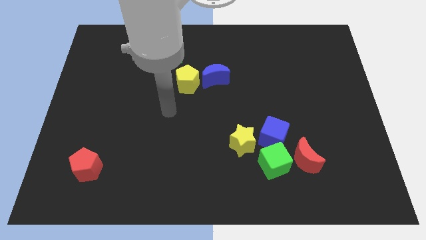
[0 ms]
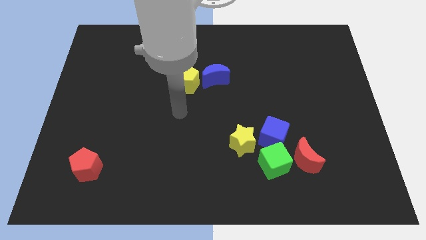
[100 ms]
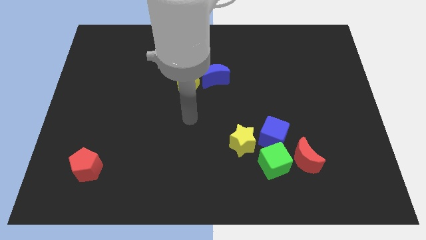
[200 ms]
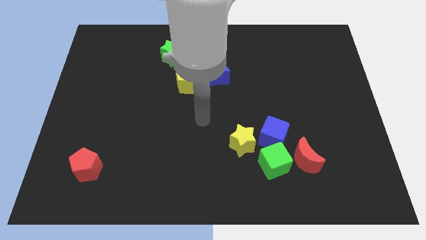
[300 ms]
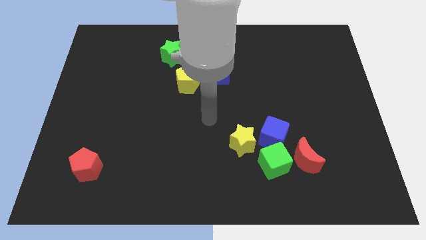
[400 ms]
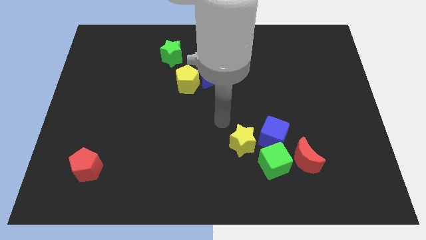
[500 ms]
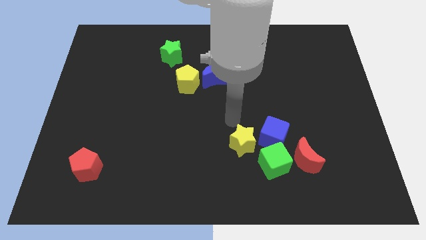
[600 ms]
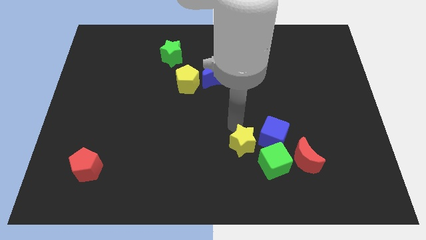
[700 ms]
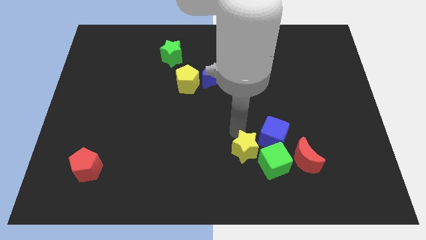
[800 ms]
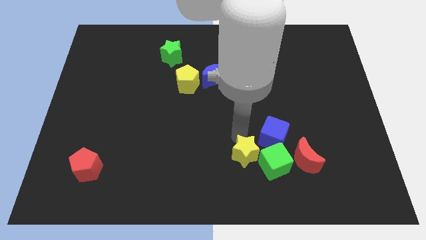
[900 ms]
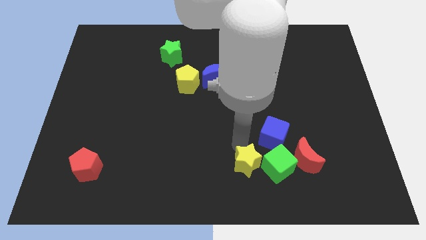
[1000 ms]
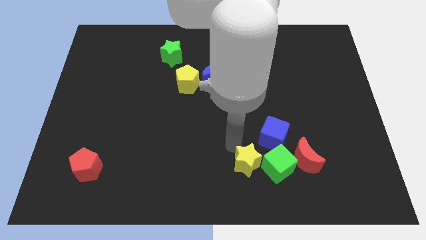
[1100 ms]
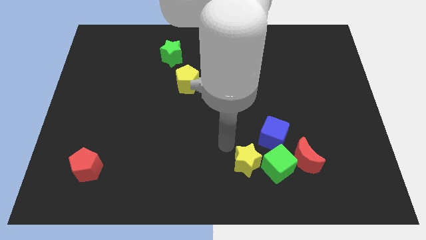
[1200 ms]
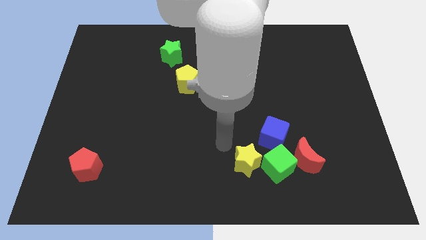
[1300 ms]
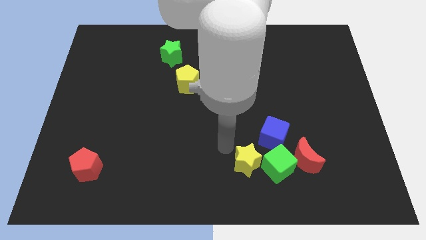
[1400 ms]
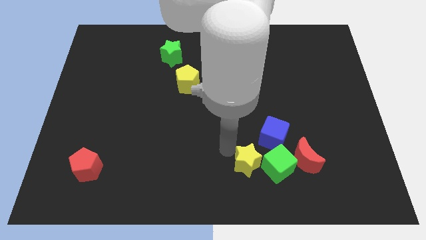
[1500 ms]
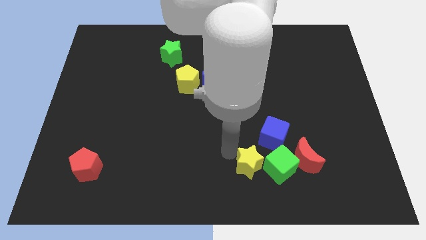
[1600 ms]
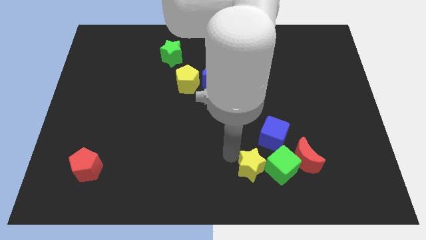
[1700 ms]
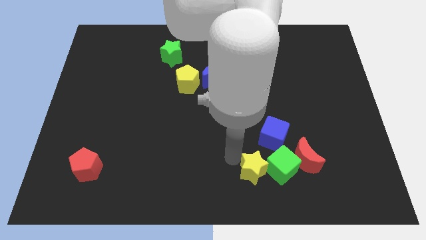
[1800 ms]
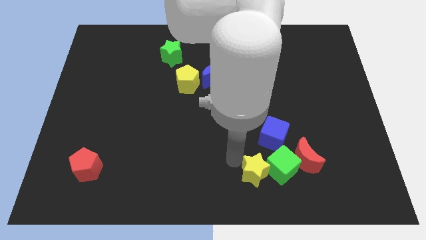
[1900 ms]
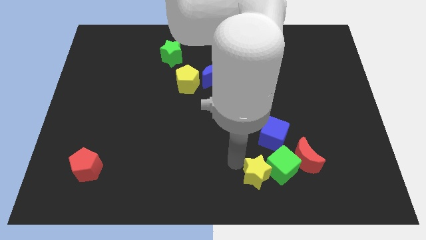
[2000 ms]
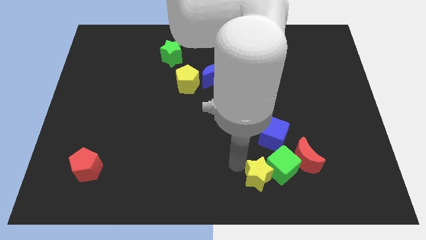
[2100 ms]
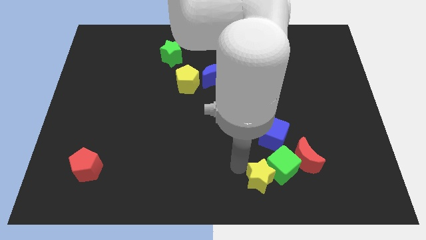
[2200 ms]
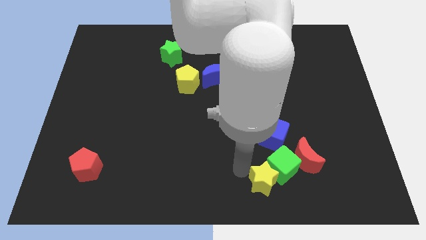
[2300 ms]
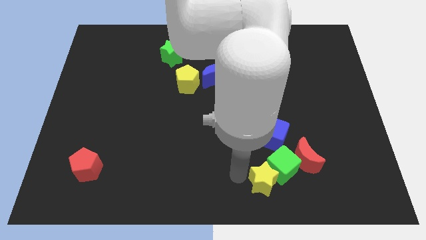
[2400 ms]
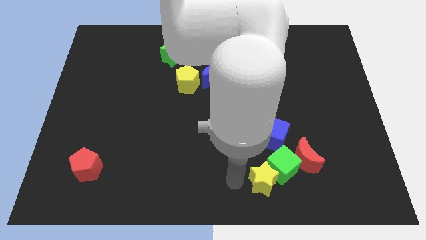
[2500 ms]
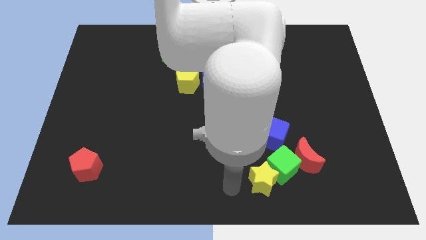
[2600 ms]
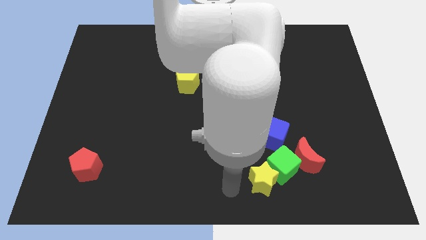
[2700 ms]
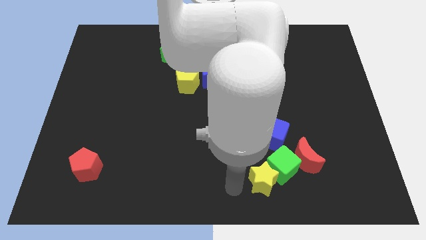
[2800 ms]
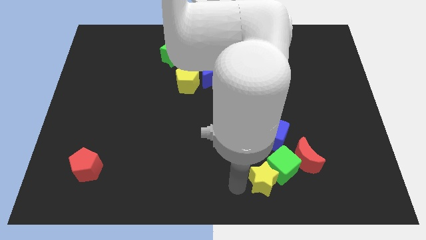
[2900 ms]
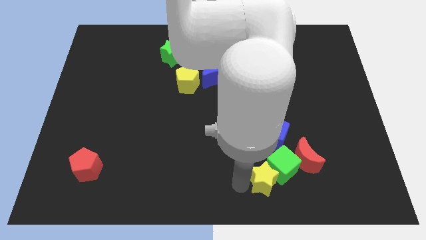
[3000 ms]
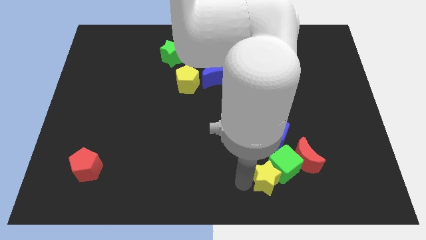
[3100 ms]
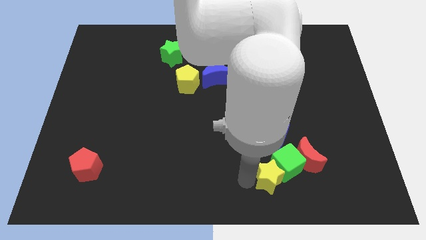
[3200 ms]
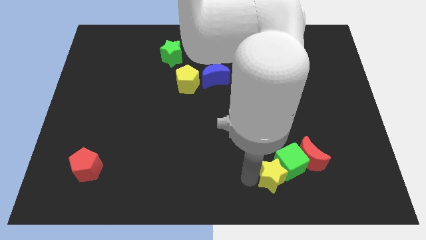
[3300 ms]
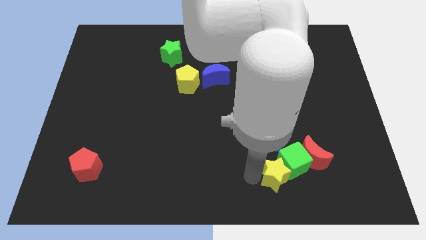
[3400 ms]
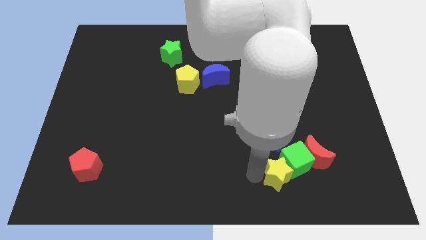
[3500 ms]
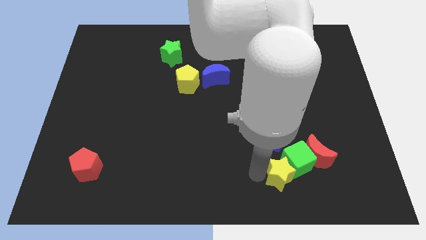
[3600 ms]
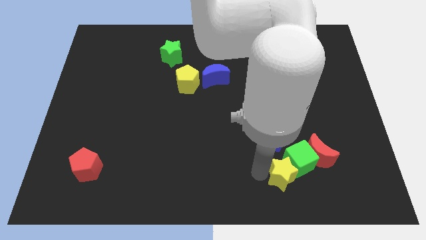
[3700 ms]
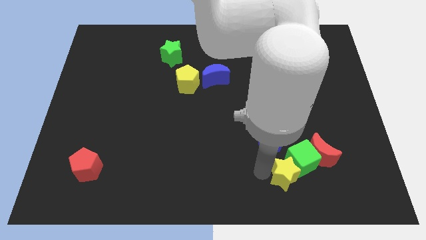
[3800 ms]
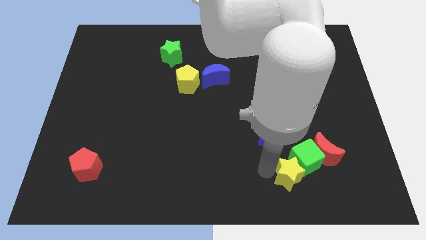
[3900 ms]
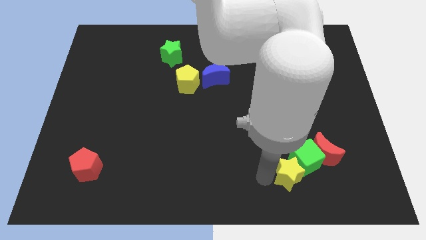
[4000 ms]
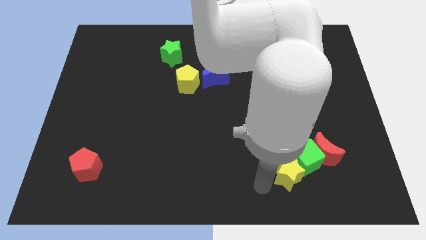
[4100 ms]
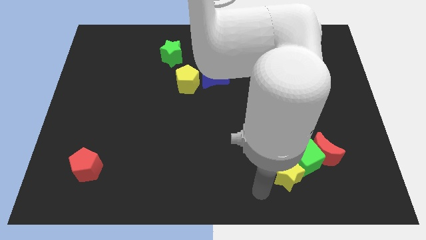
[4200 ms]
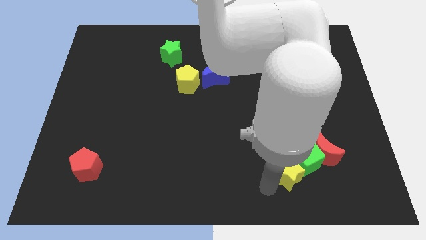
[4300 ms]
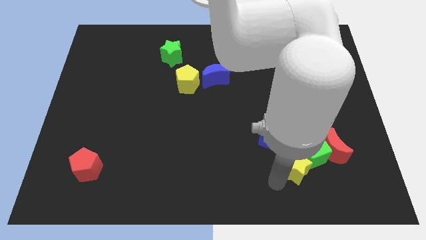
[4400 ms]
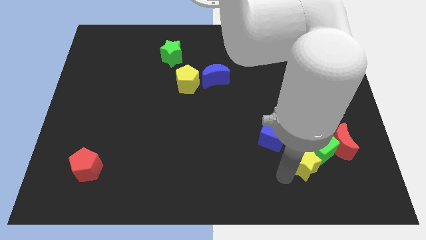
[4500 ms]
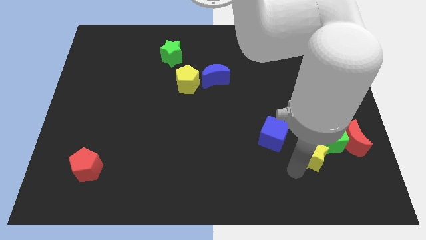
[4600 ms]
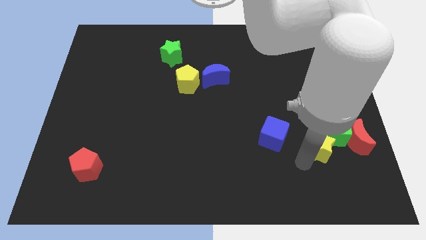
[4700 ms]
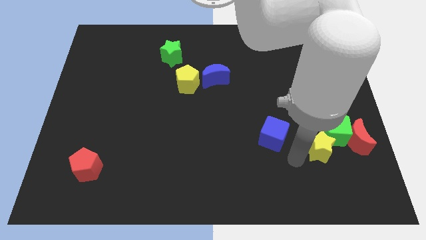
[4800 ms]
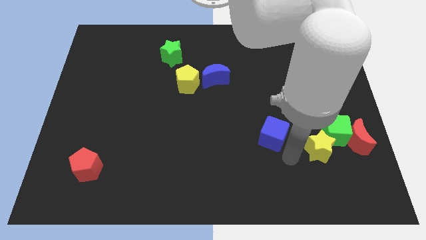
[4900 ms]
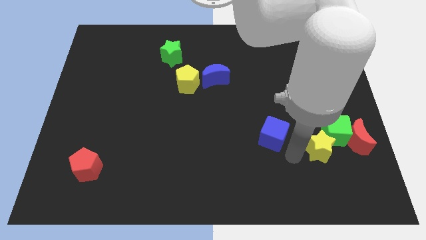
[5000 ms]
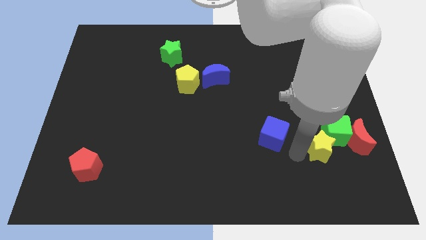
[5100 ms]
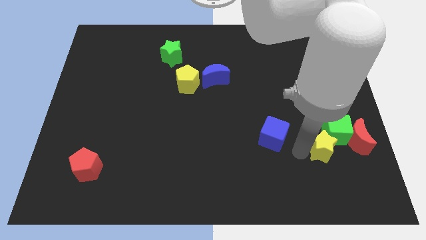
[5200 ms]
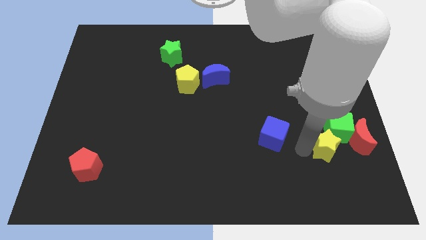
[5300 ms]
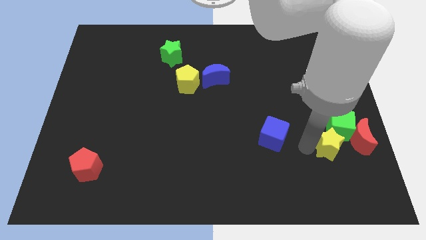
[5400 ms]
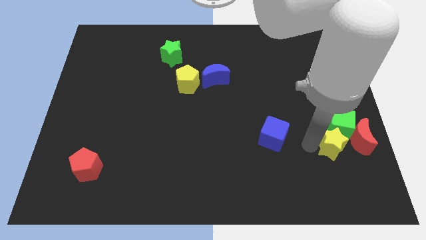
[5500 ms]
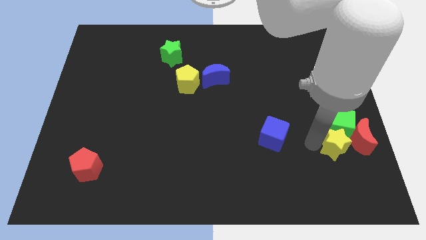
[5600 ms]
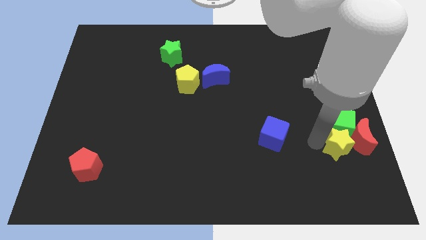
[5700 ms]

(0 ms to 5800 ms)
slide the yellow star towards the red moon

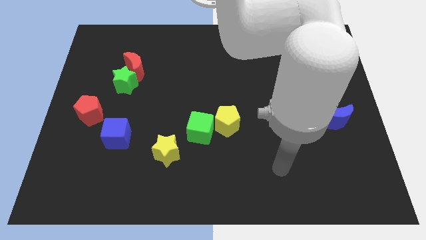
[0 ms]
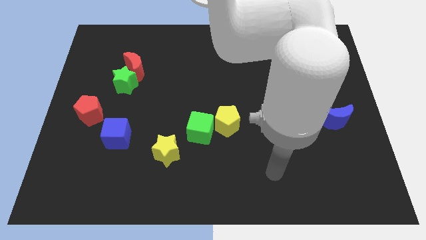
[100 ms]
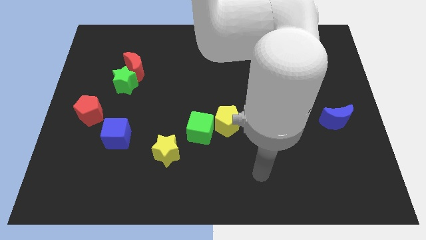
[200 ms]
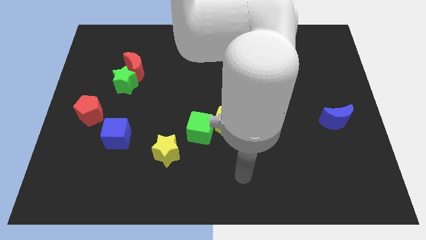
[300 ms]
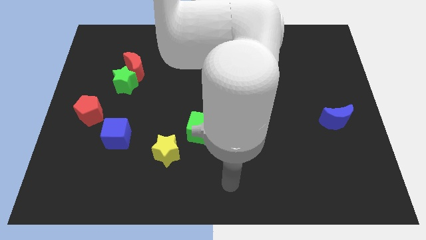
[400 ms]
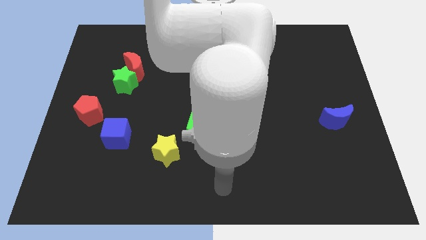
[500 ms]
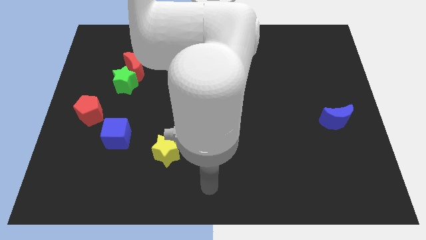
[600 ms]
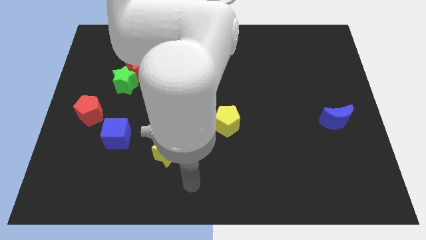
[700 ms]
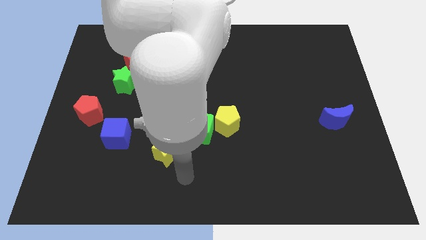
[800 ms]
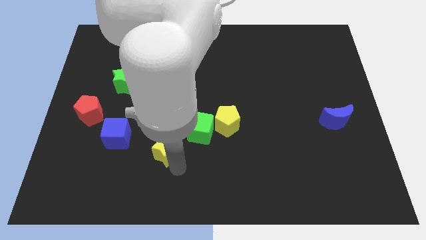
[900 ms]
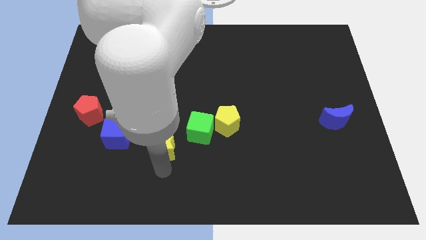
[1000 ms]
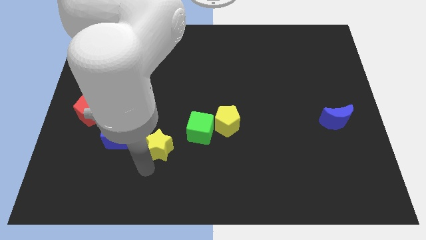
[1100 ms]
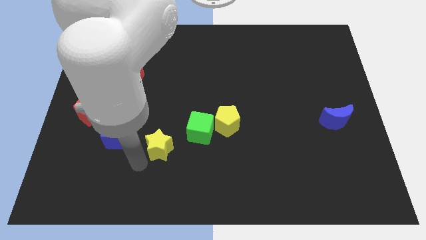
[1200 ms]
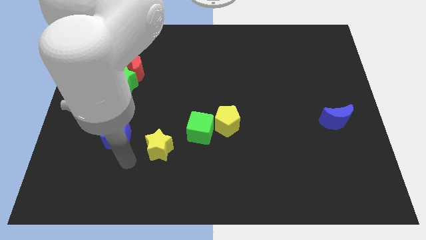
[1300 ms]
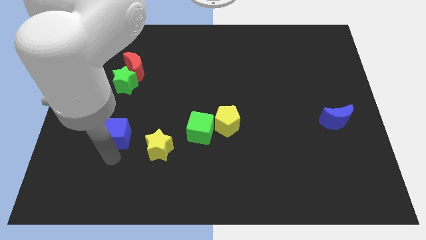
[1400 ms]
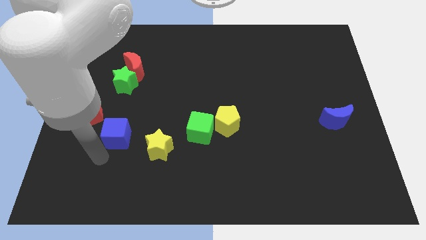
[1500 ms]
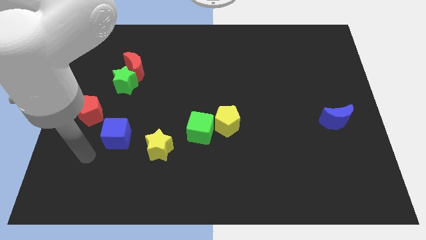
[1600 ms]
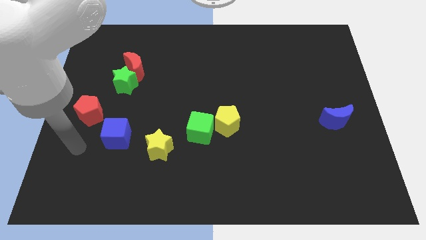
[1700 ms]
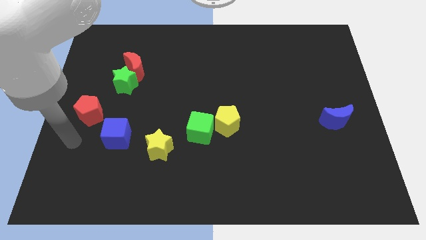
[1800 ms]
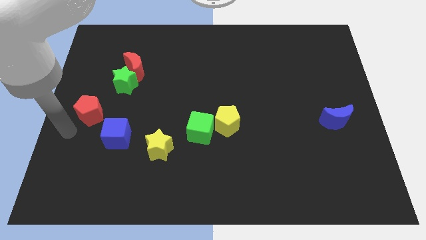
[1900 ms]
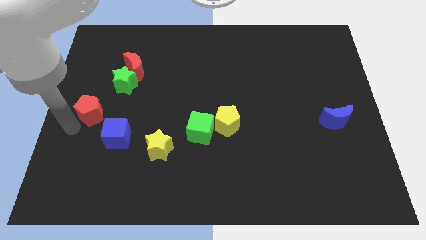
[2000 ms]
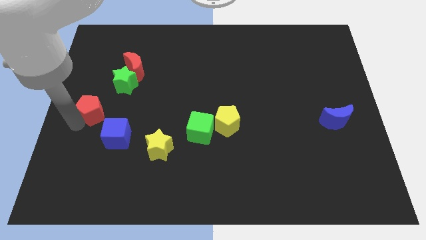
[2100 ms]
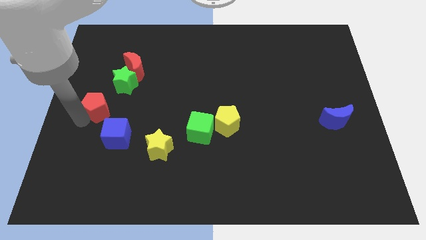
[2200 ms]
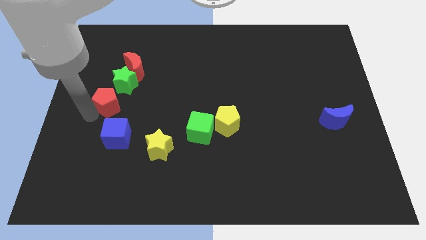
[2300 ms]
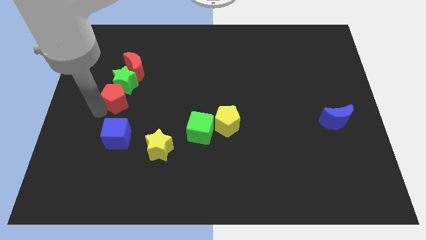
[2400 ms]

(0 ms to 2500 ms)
move the red pentagon close to the green star
